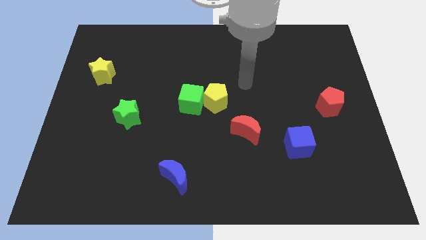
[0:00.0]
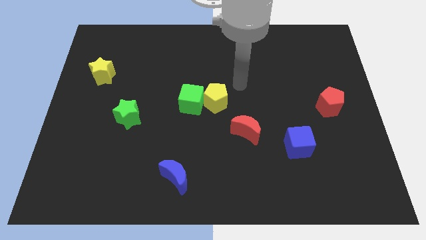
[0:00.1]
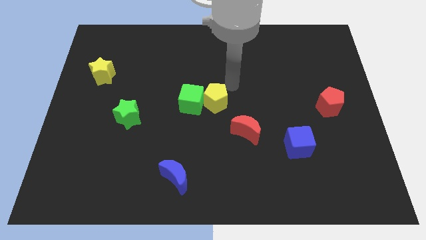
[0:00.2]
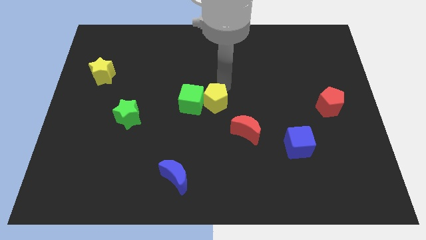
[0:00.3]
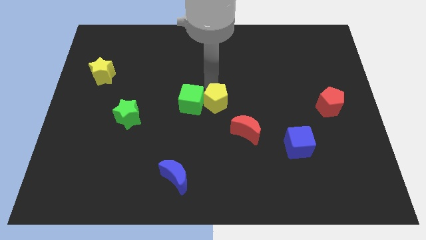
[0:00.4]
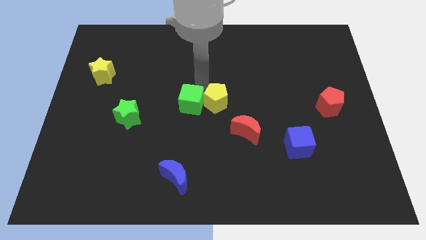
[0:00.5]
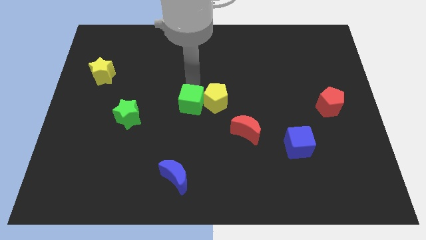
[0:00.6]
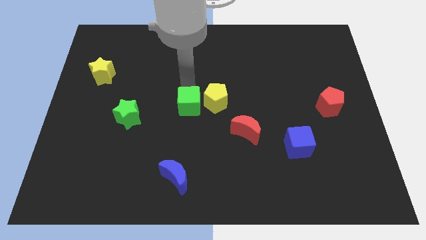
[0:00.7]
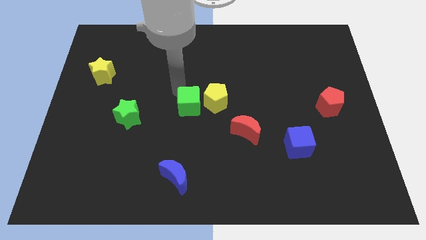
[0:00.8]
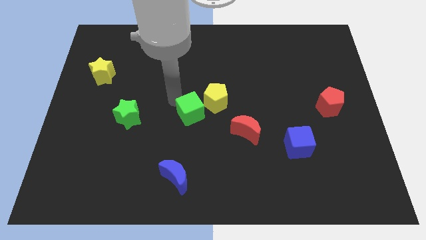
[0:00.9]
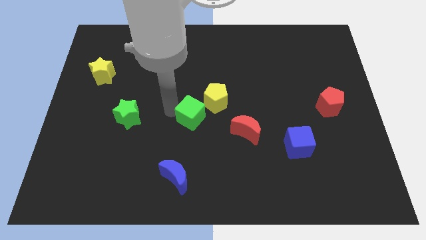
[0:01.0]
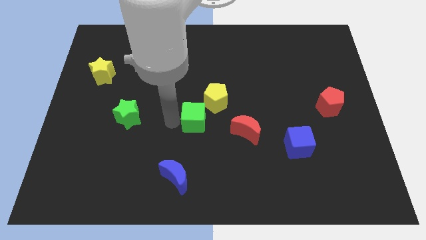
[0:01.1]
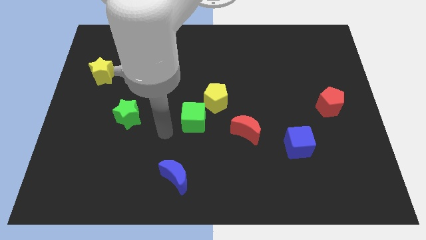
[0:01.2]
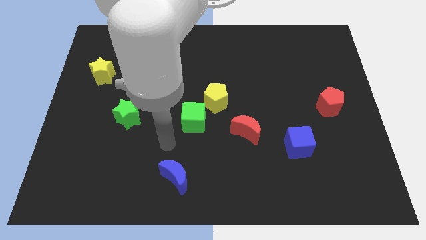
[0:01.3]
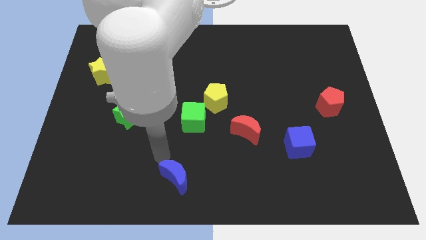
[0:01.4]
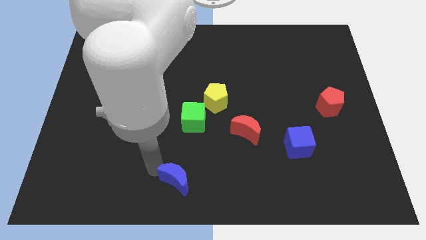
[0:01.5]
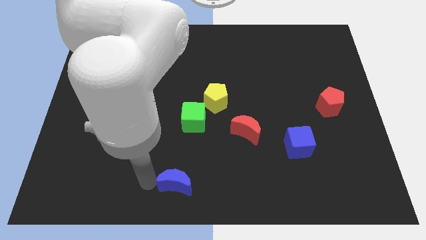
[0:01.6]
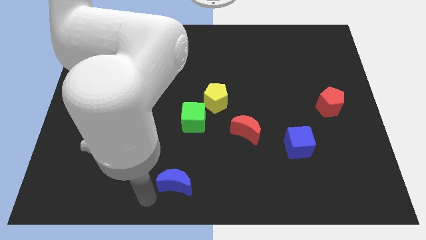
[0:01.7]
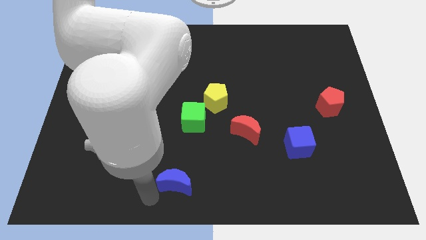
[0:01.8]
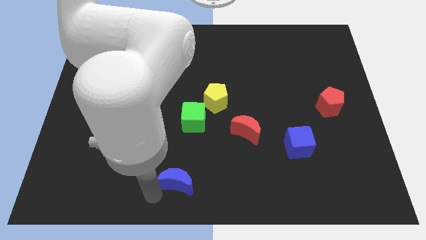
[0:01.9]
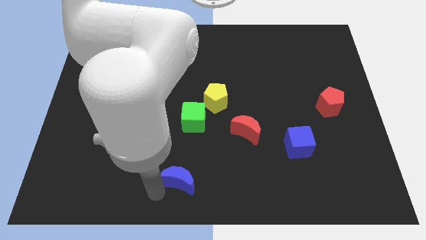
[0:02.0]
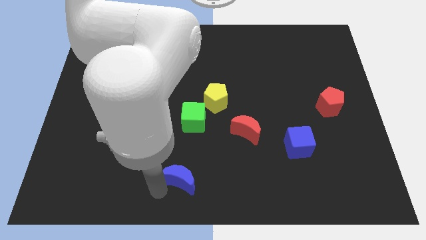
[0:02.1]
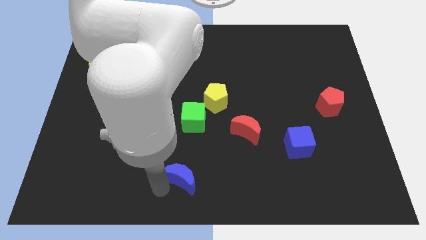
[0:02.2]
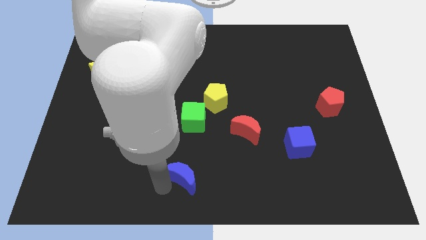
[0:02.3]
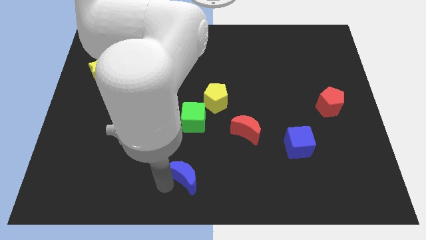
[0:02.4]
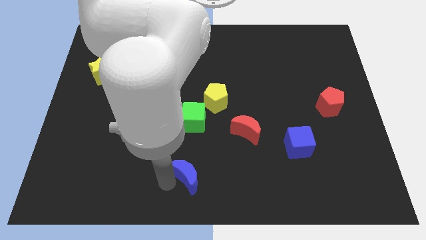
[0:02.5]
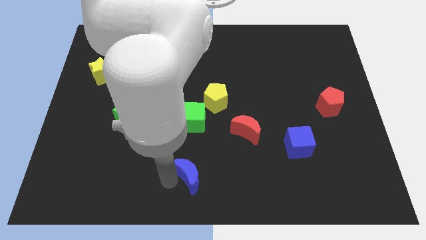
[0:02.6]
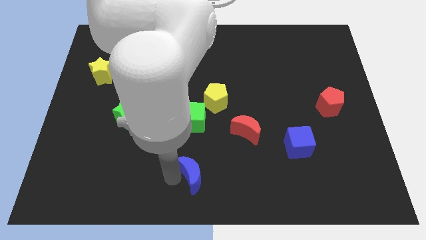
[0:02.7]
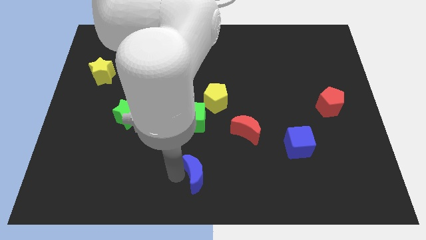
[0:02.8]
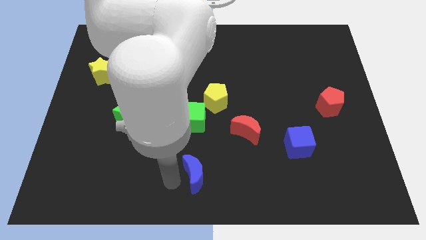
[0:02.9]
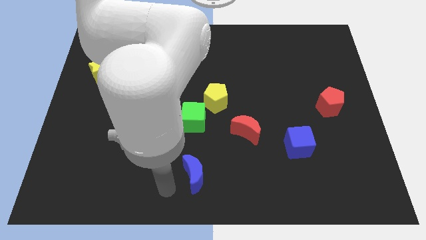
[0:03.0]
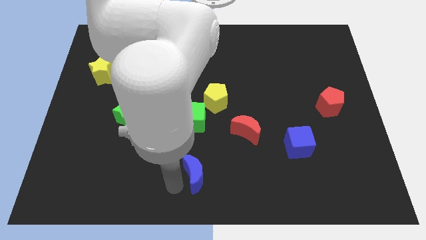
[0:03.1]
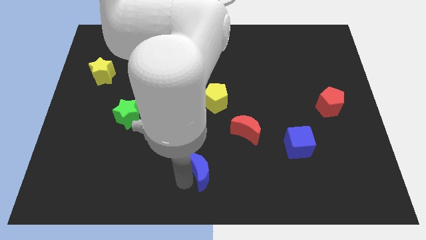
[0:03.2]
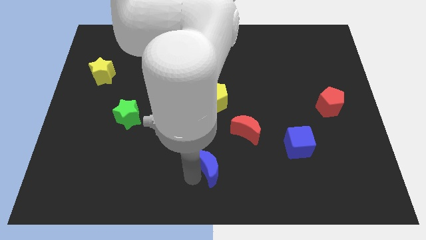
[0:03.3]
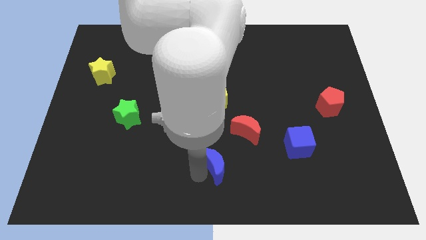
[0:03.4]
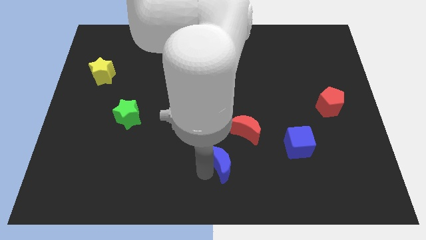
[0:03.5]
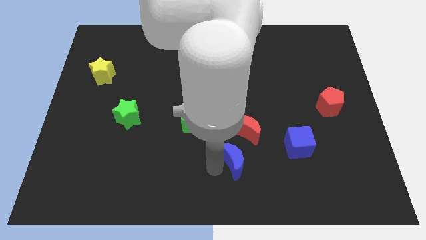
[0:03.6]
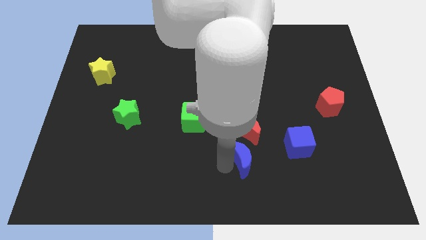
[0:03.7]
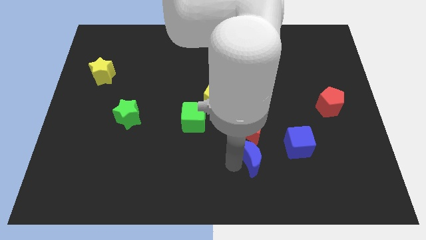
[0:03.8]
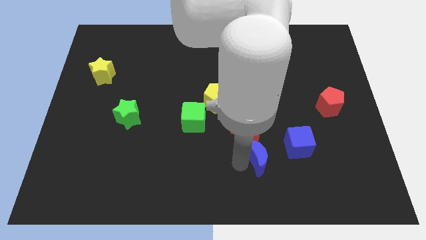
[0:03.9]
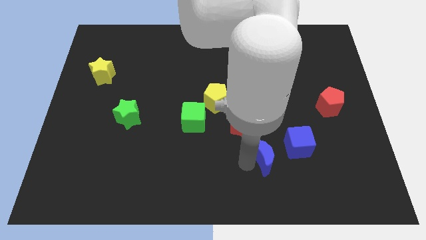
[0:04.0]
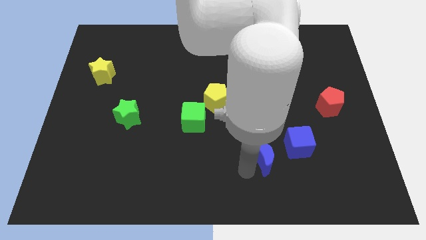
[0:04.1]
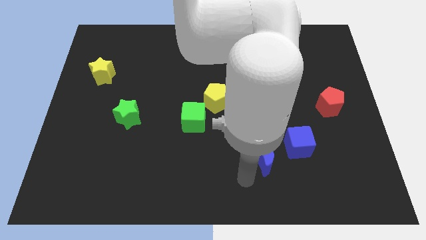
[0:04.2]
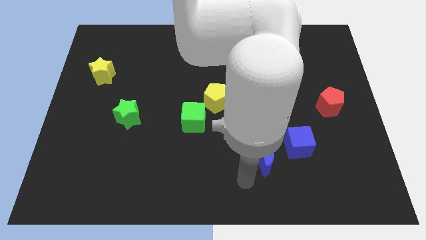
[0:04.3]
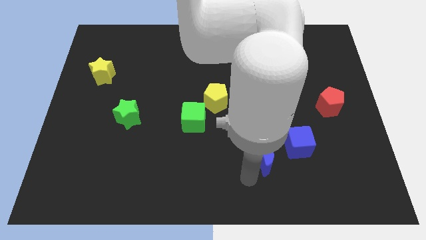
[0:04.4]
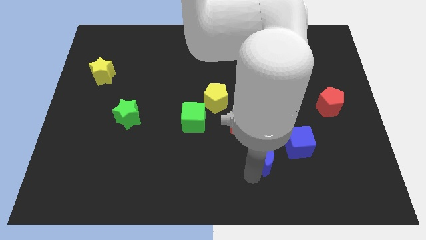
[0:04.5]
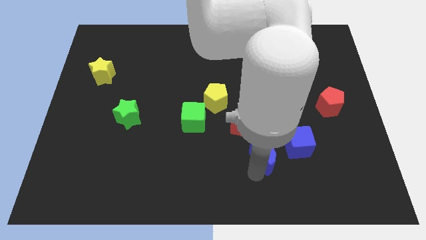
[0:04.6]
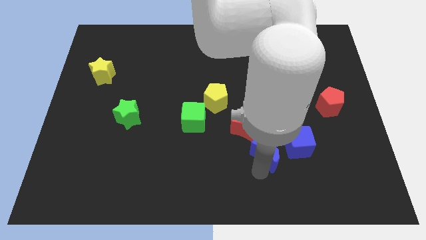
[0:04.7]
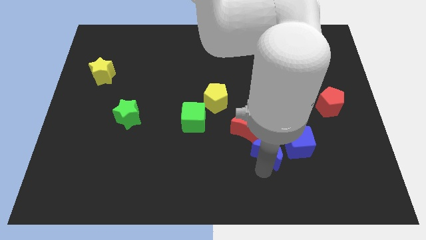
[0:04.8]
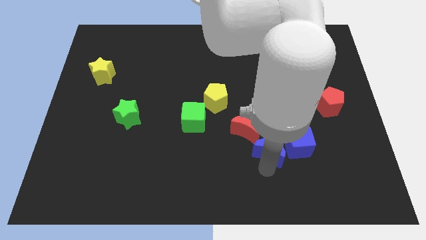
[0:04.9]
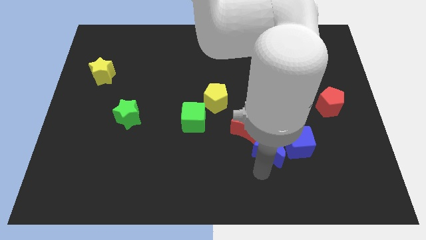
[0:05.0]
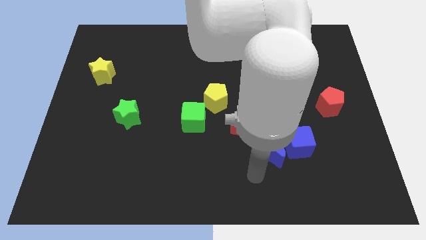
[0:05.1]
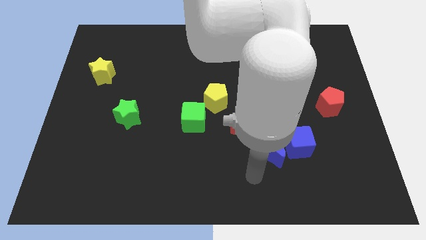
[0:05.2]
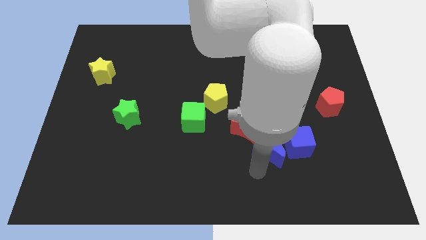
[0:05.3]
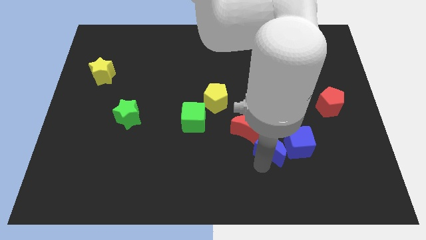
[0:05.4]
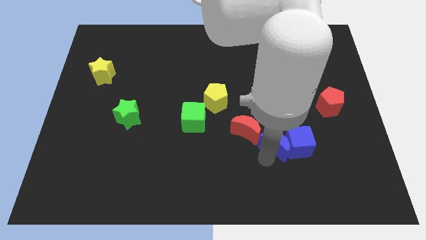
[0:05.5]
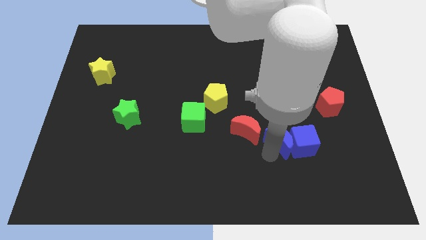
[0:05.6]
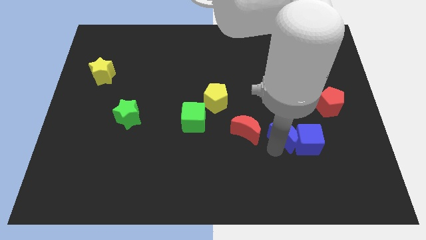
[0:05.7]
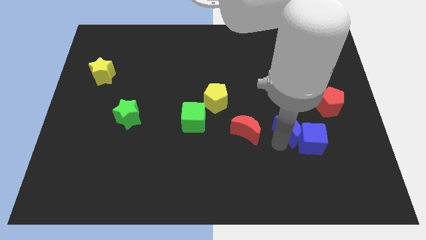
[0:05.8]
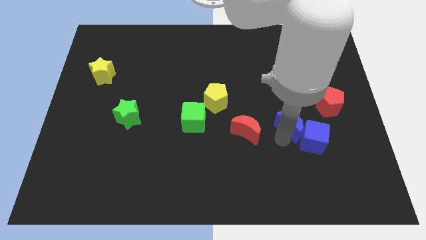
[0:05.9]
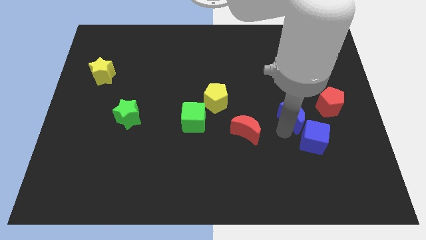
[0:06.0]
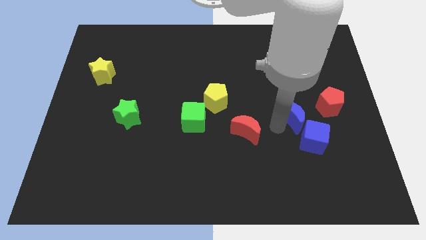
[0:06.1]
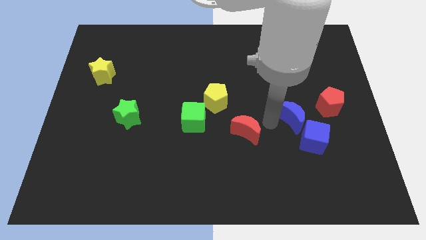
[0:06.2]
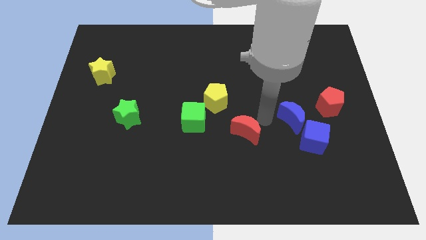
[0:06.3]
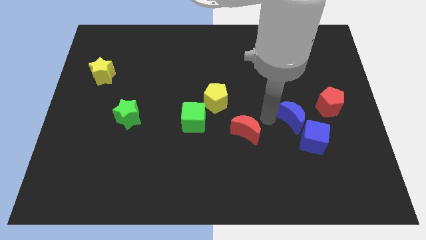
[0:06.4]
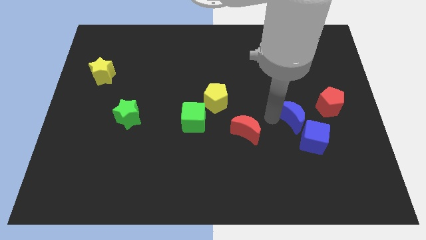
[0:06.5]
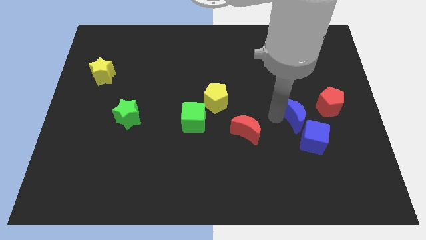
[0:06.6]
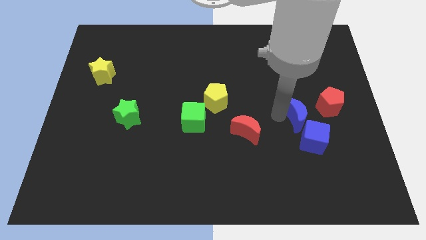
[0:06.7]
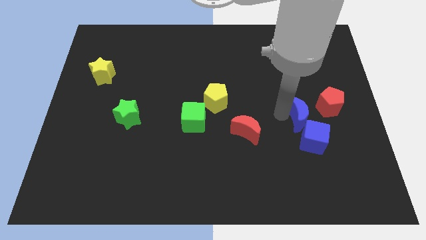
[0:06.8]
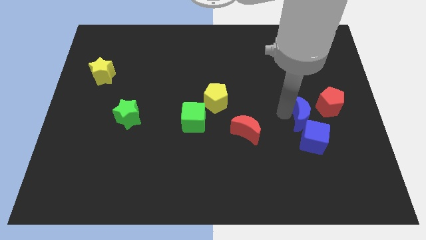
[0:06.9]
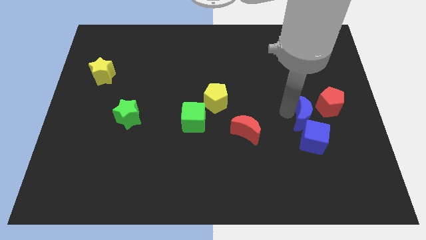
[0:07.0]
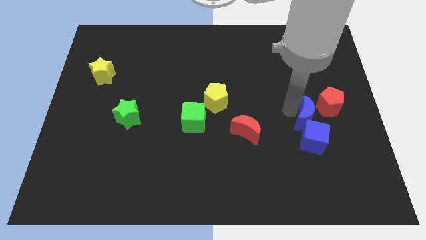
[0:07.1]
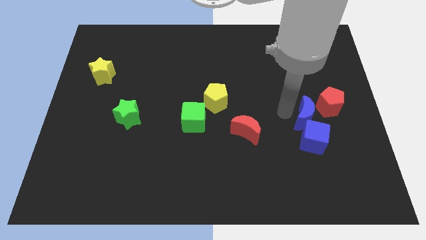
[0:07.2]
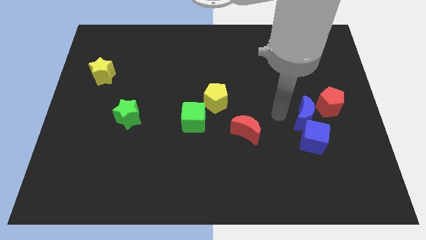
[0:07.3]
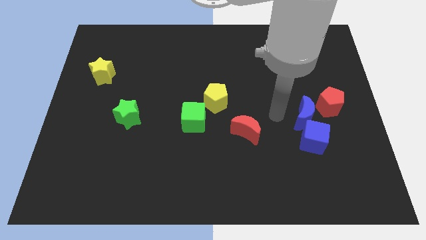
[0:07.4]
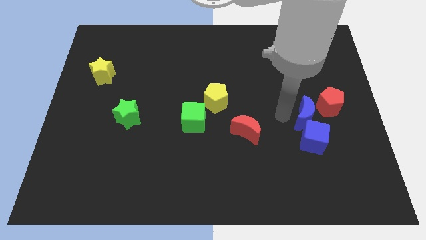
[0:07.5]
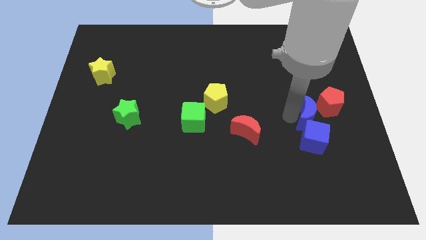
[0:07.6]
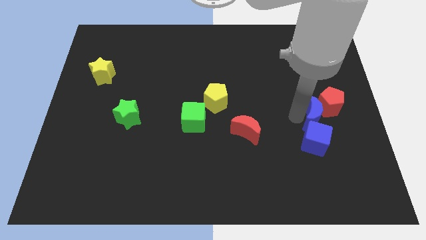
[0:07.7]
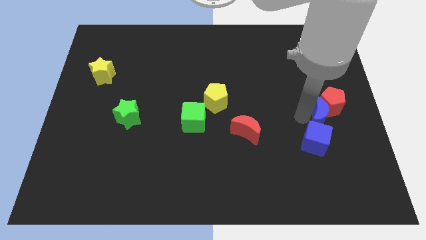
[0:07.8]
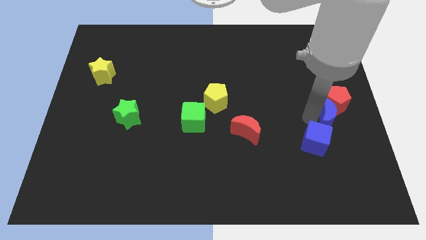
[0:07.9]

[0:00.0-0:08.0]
move the blue moon to the right side
